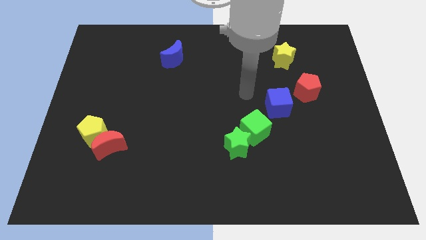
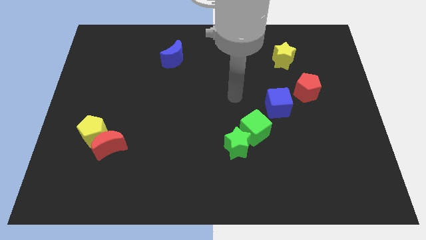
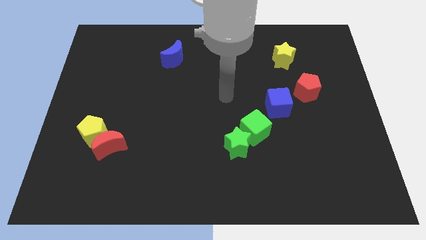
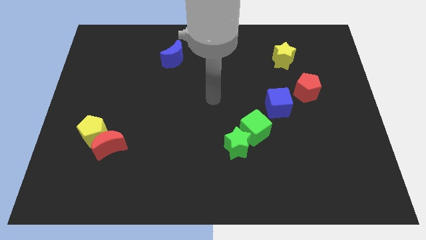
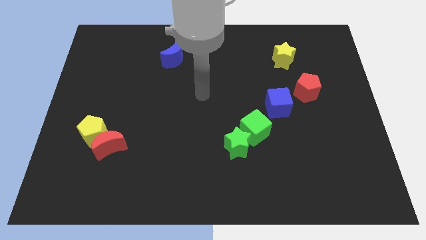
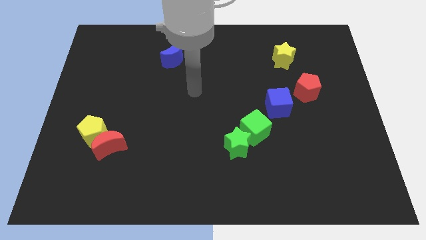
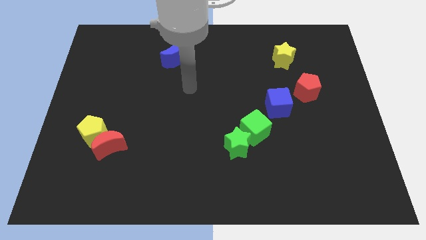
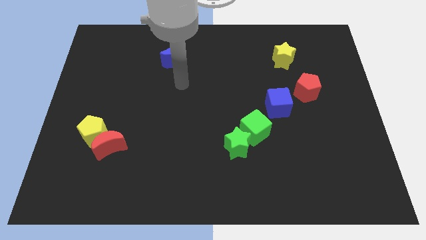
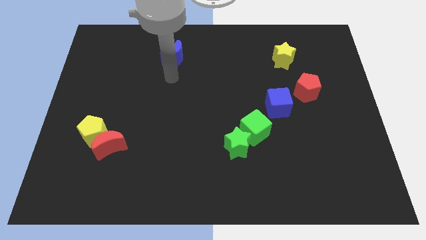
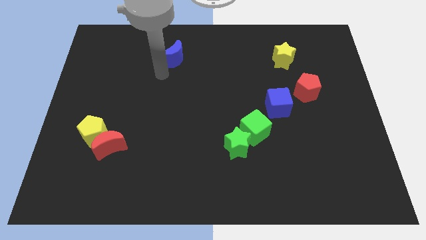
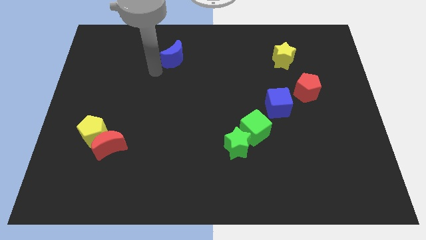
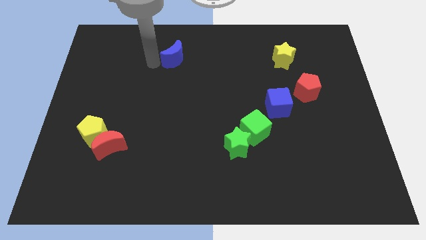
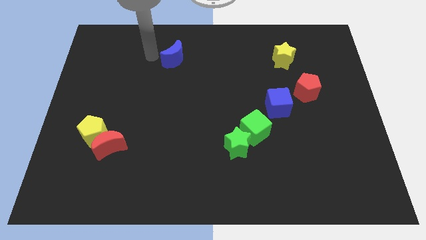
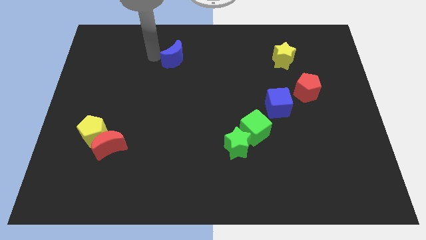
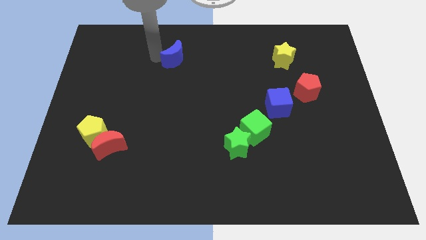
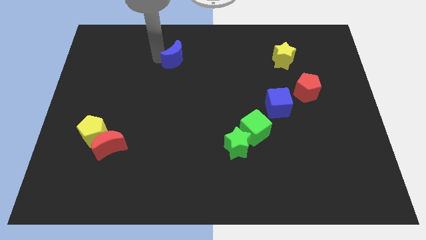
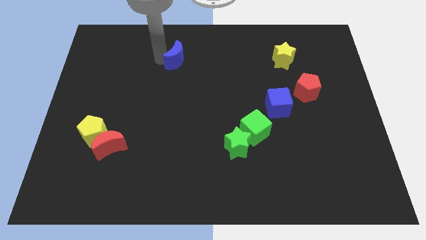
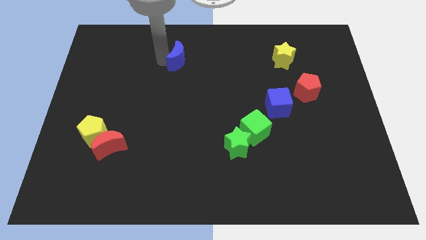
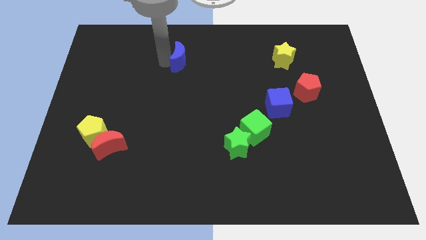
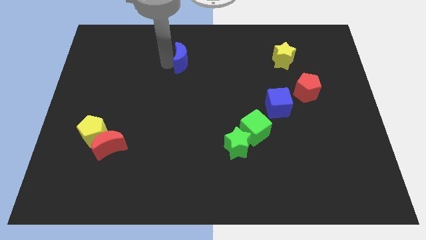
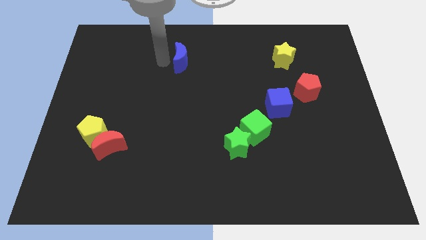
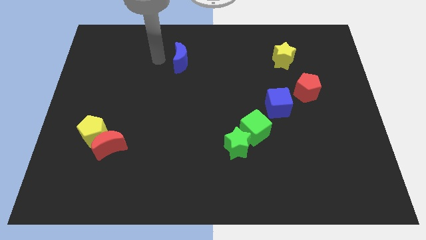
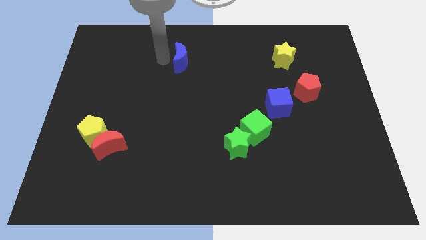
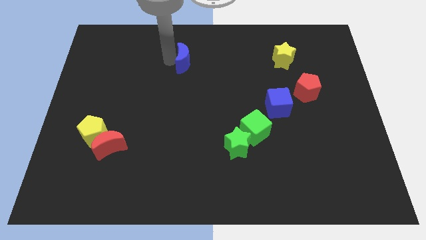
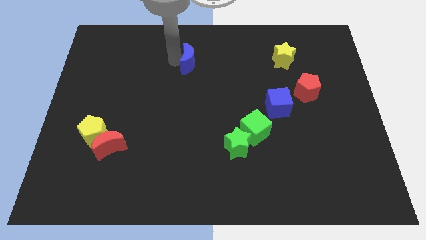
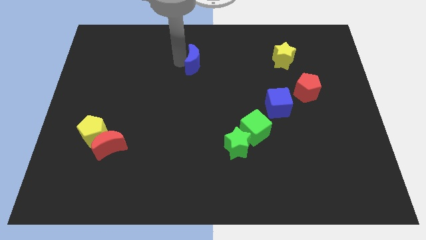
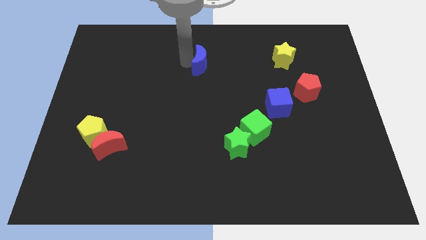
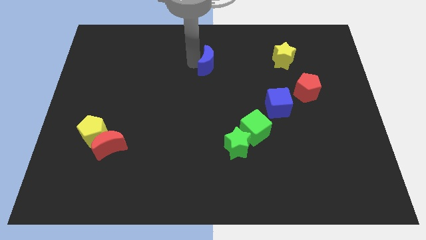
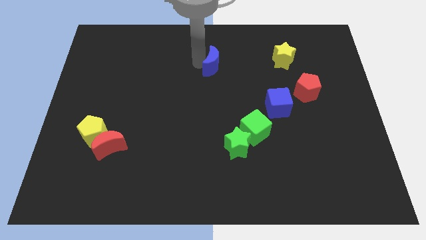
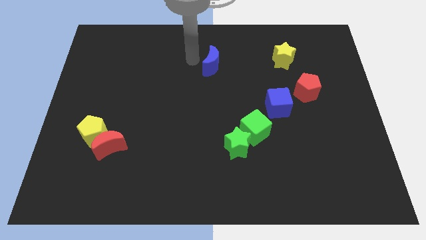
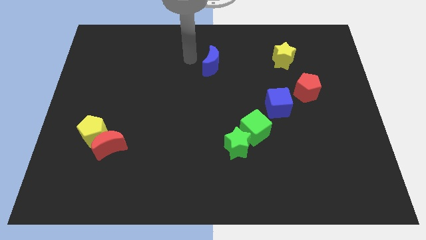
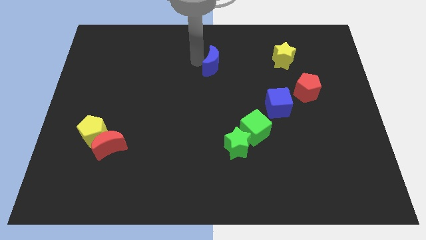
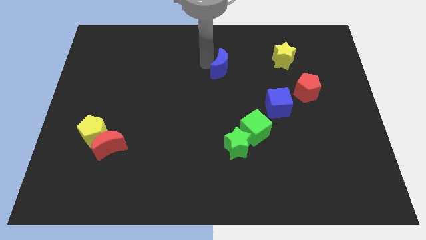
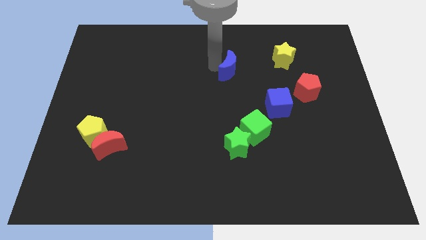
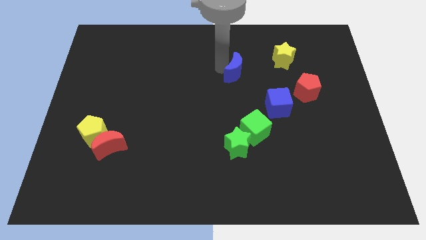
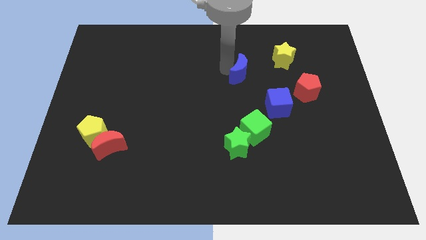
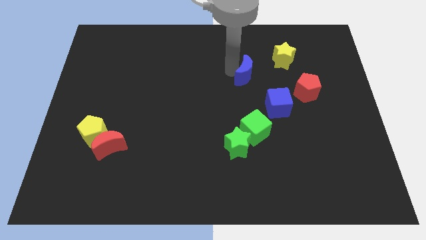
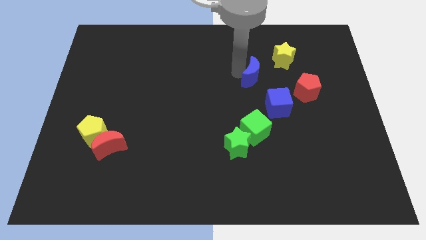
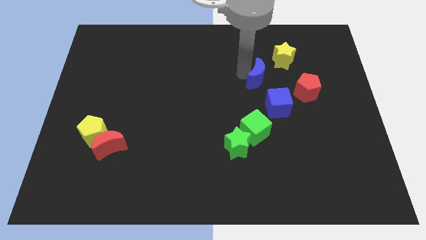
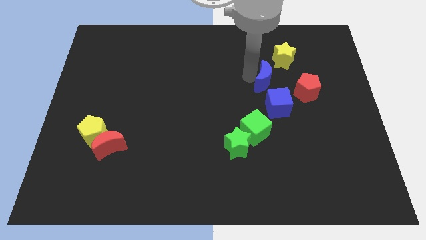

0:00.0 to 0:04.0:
slide the blue moon right

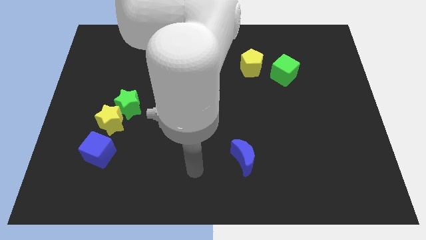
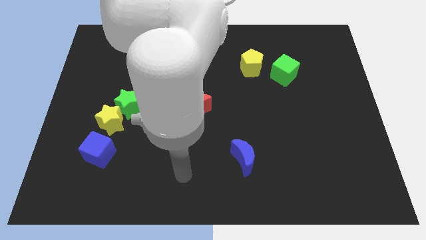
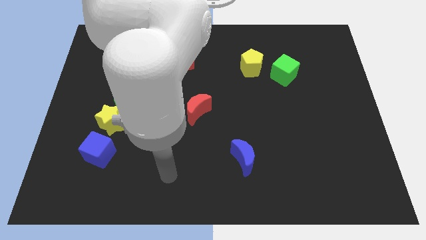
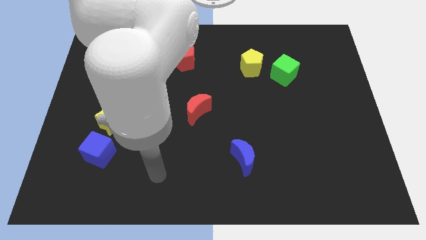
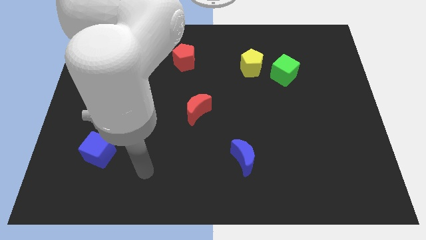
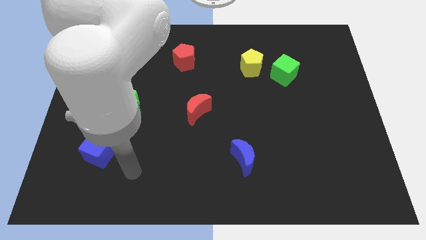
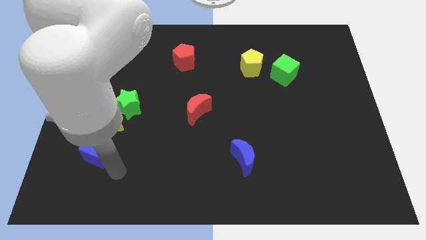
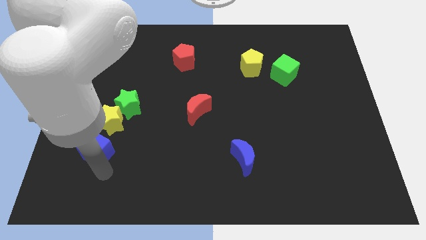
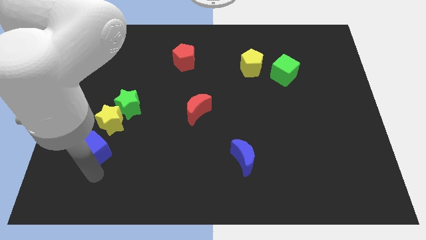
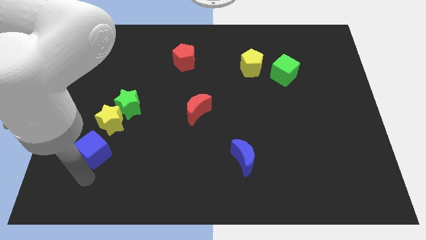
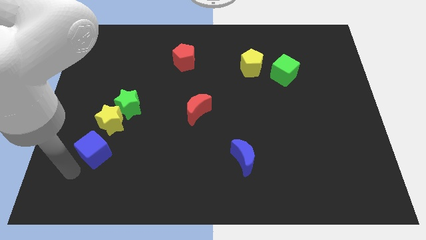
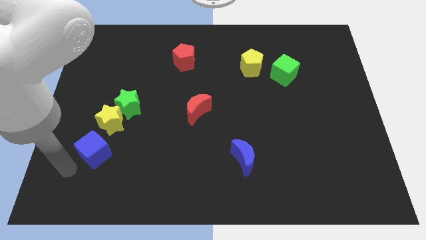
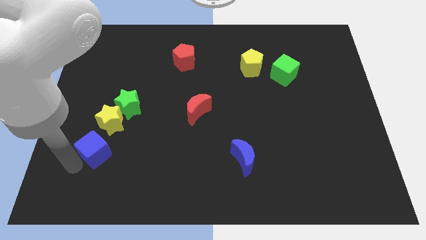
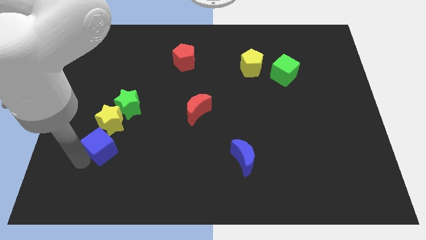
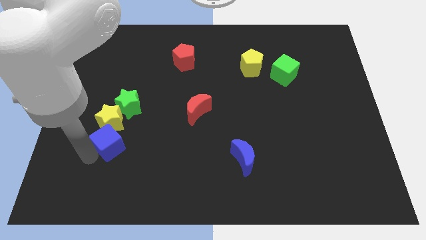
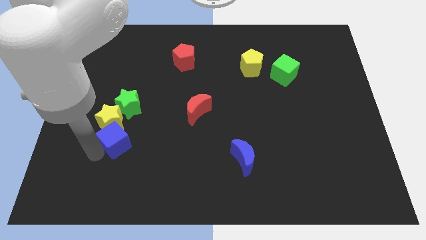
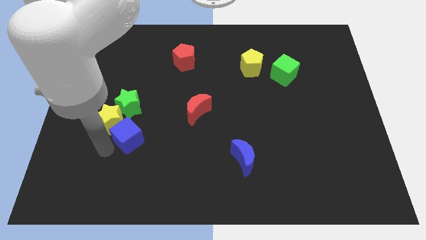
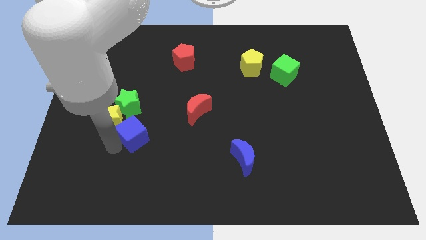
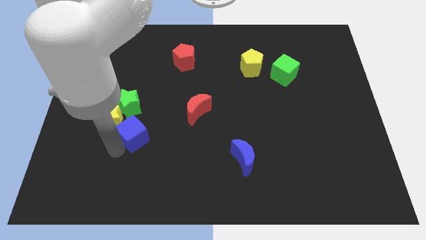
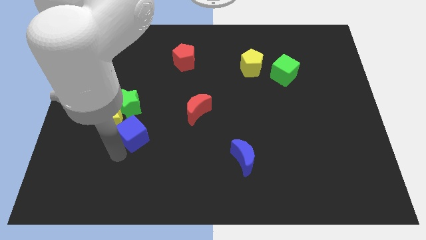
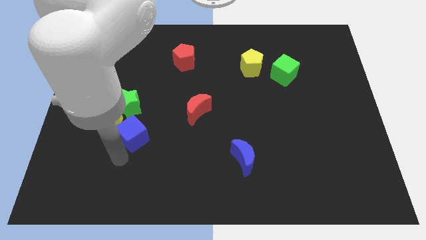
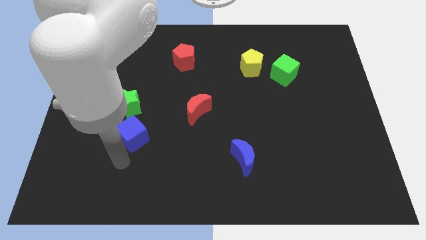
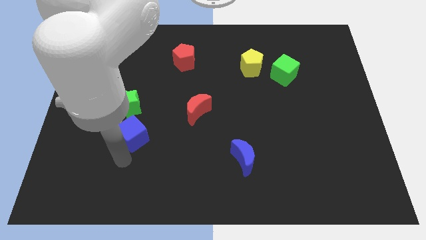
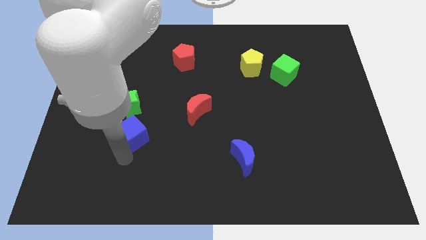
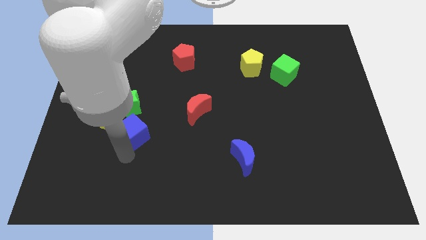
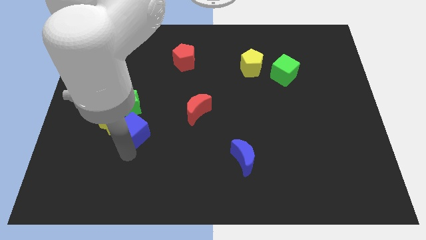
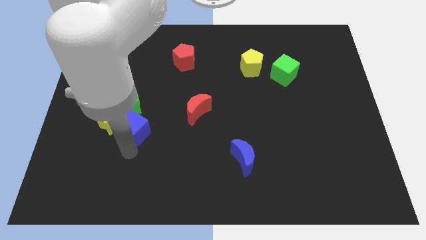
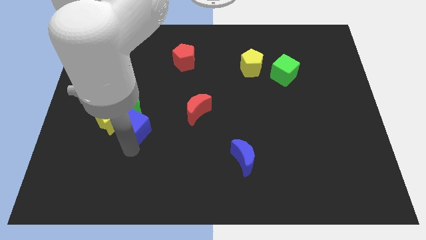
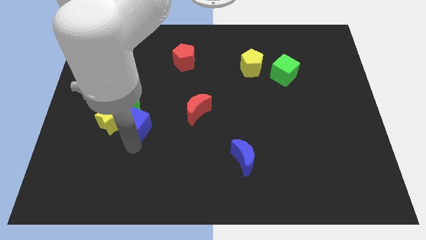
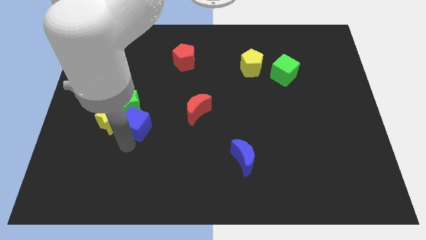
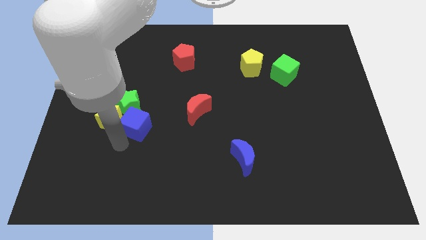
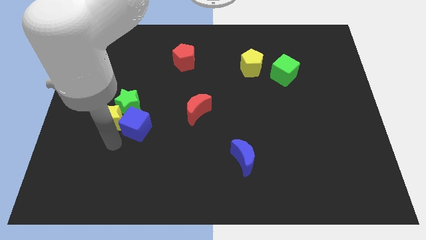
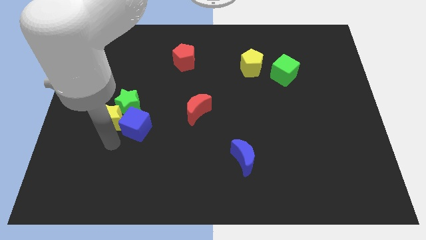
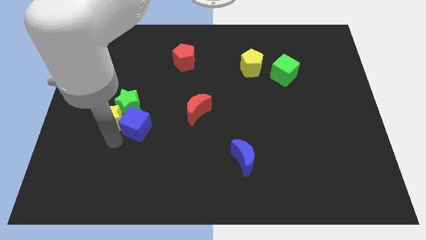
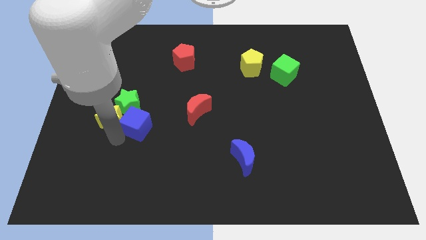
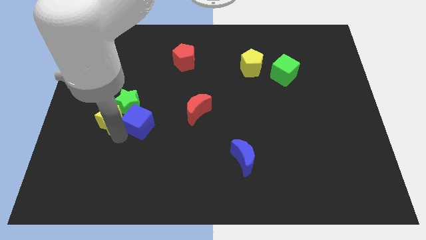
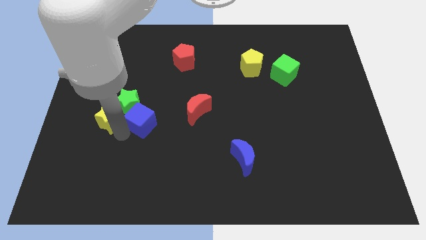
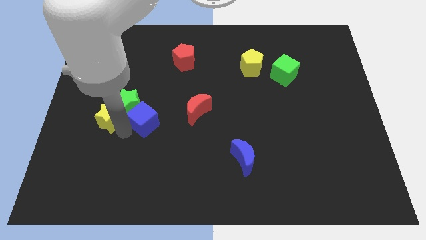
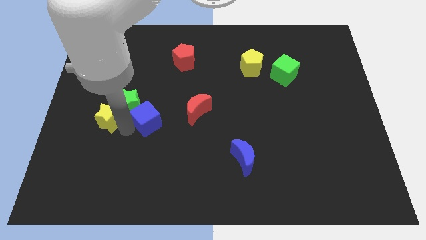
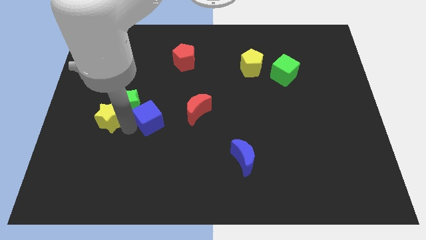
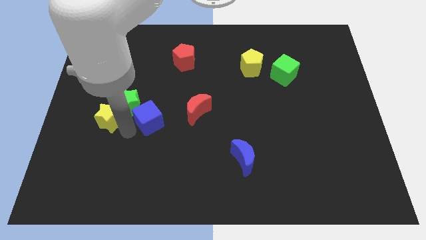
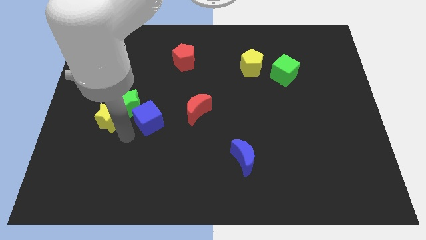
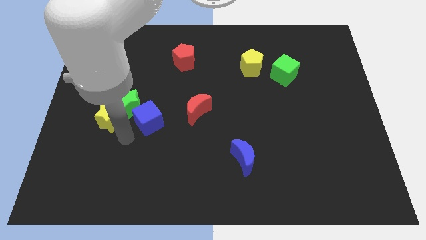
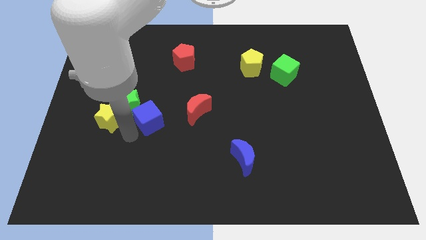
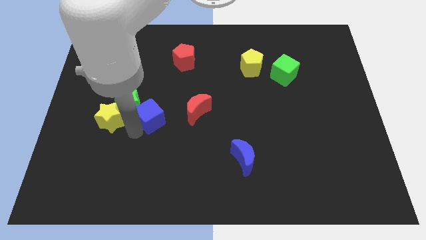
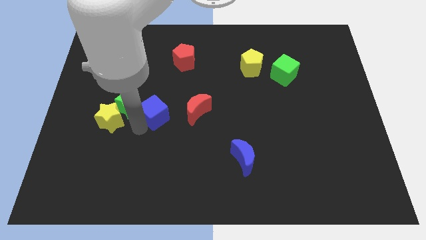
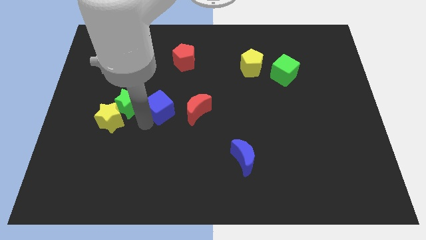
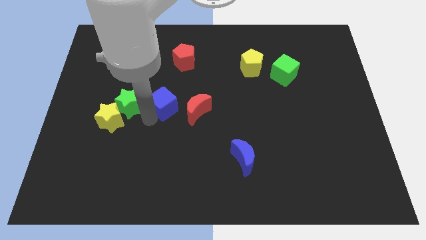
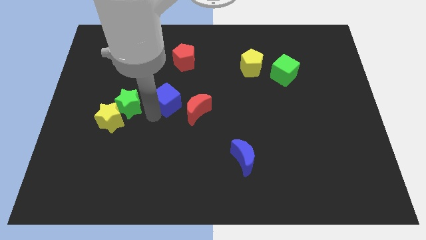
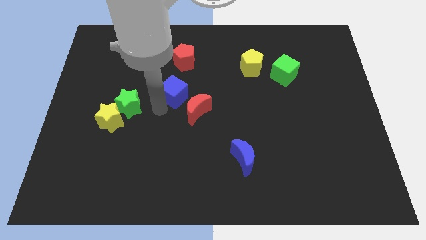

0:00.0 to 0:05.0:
push the blue cube upwards and then right
